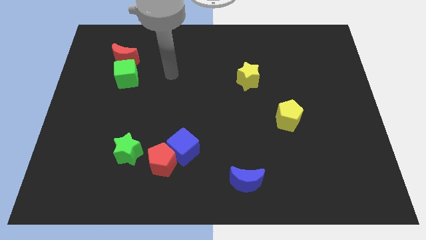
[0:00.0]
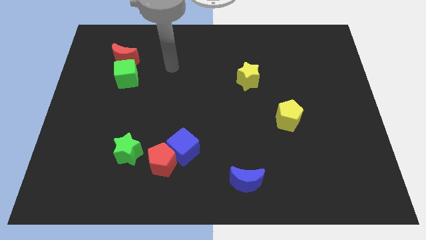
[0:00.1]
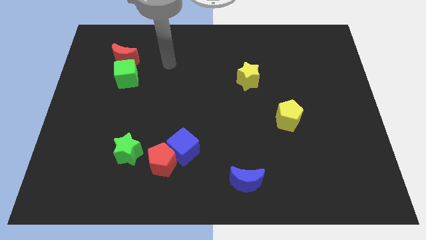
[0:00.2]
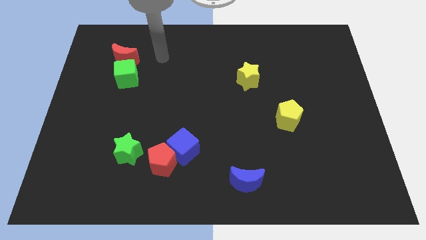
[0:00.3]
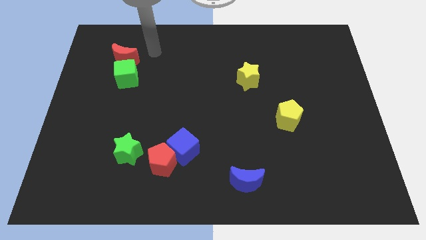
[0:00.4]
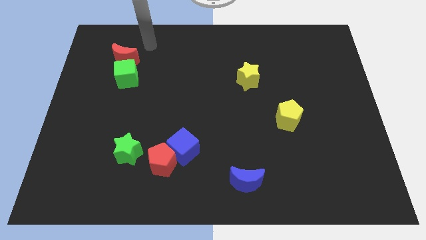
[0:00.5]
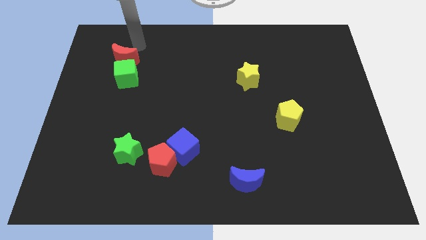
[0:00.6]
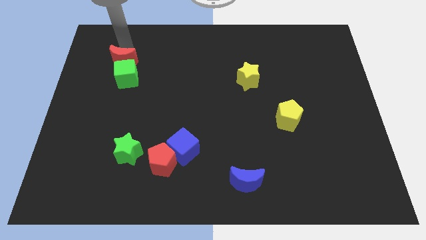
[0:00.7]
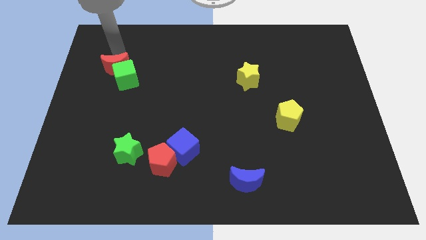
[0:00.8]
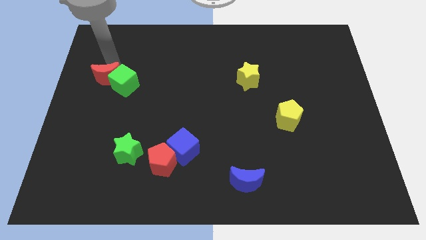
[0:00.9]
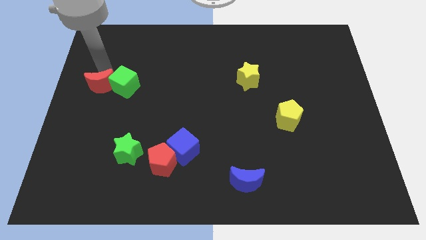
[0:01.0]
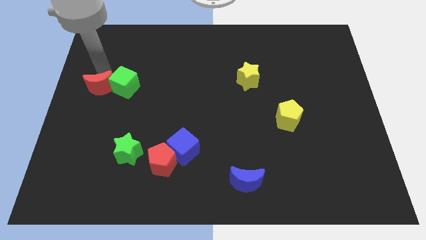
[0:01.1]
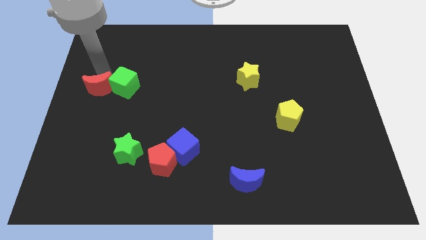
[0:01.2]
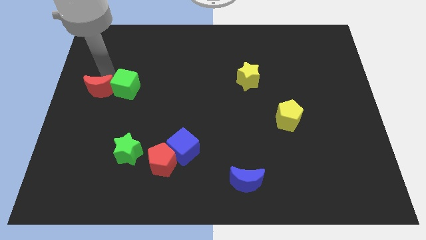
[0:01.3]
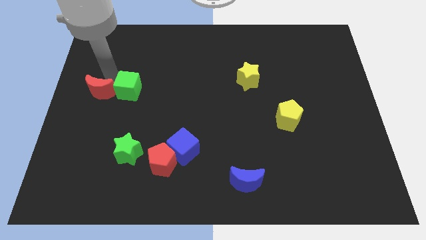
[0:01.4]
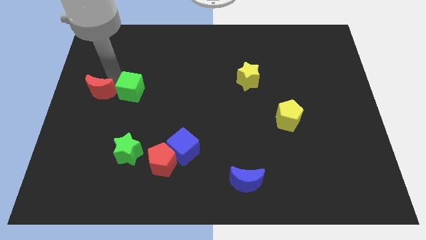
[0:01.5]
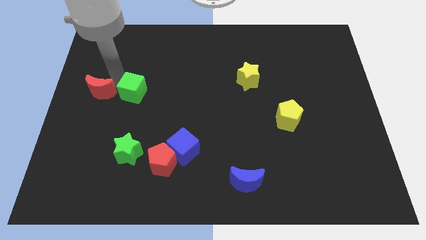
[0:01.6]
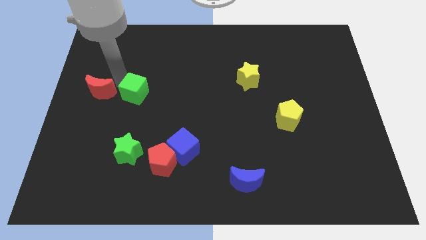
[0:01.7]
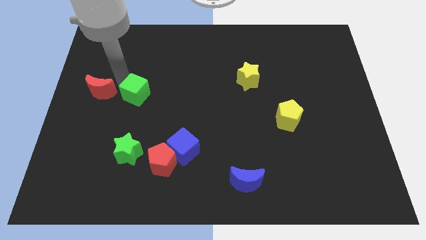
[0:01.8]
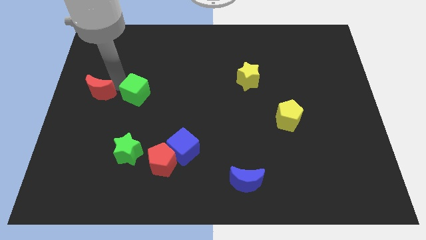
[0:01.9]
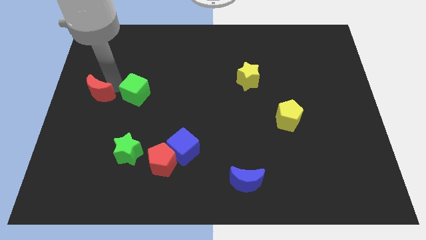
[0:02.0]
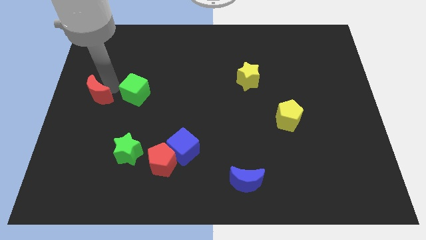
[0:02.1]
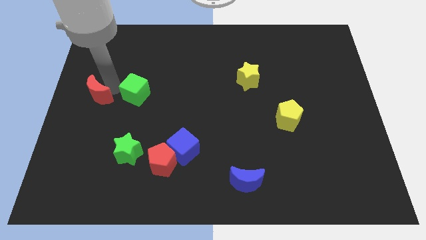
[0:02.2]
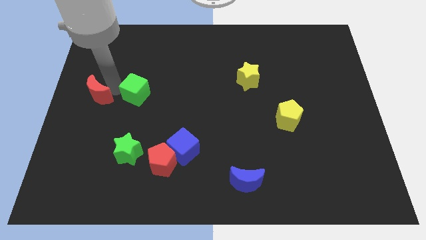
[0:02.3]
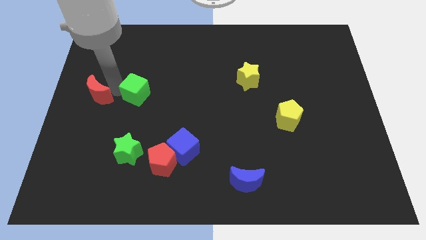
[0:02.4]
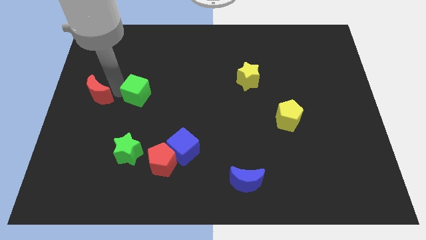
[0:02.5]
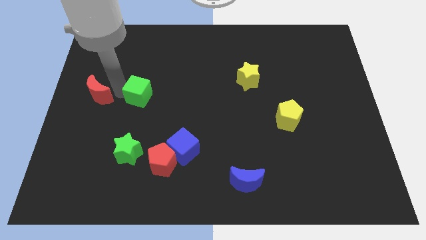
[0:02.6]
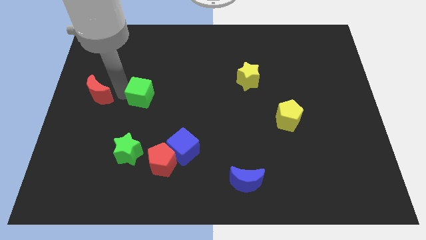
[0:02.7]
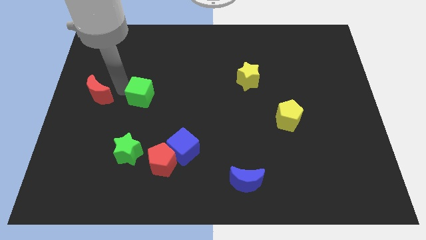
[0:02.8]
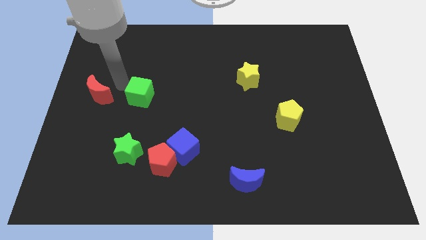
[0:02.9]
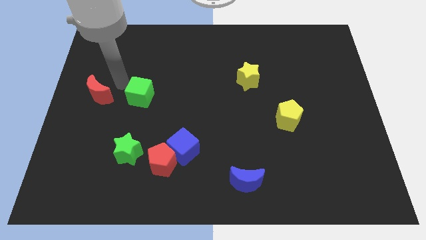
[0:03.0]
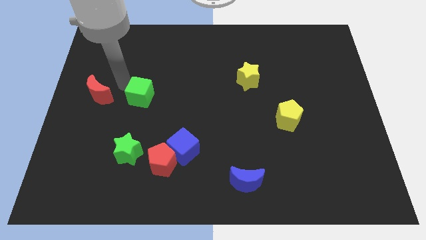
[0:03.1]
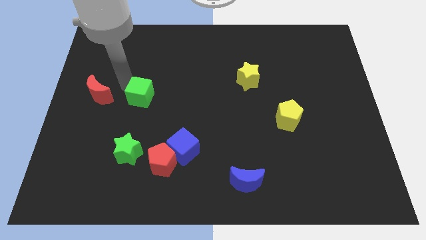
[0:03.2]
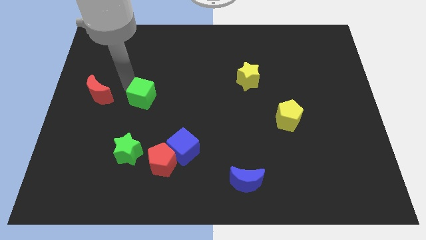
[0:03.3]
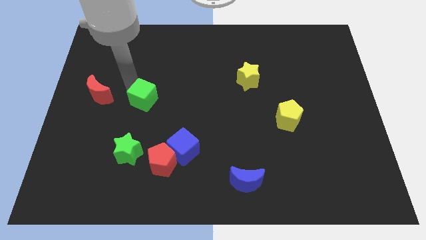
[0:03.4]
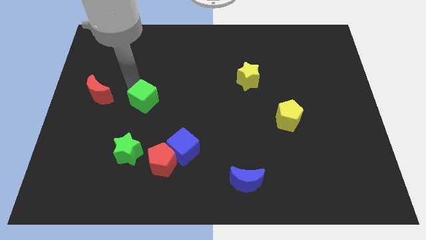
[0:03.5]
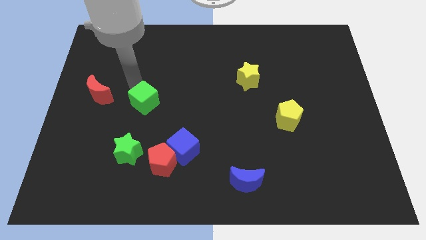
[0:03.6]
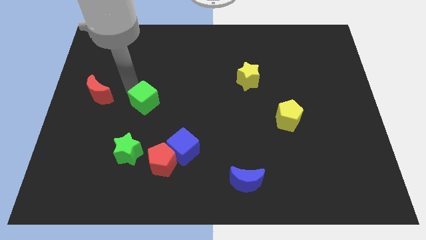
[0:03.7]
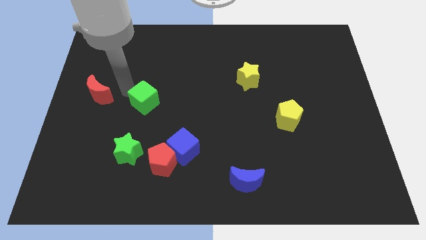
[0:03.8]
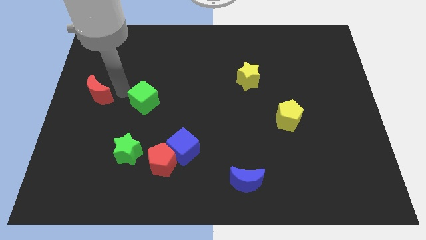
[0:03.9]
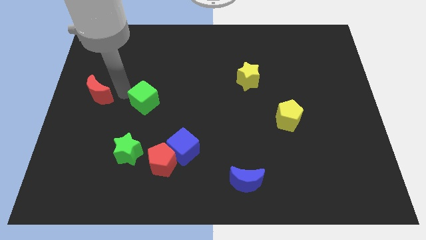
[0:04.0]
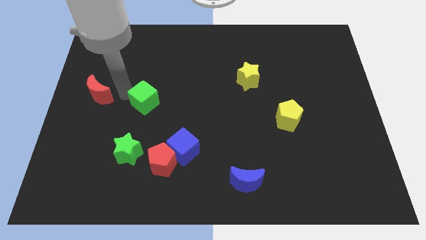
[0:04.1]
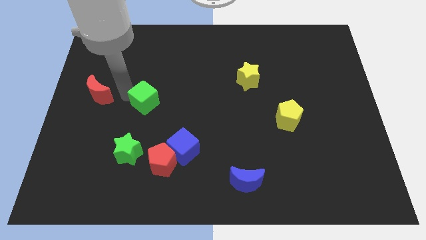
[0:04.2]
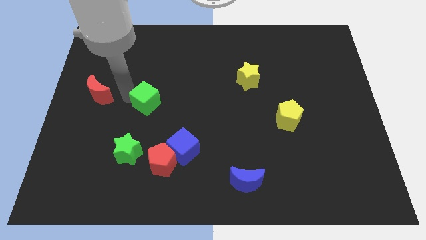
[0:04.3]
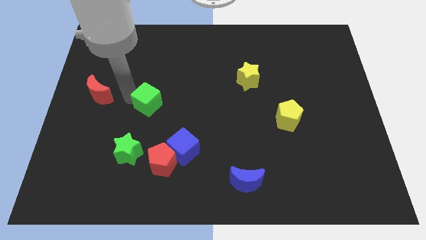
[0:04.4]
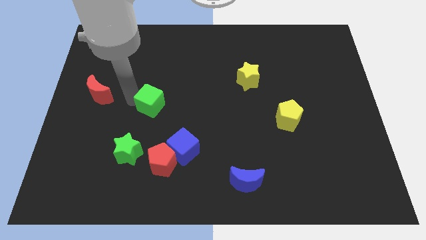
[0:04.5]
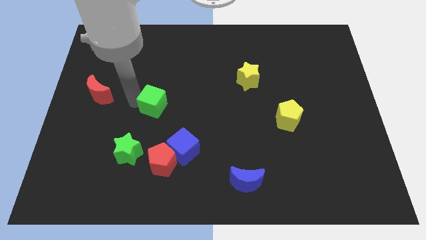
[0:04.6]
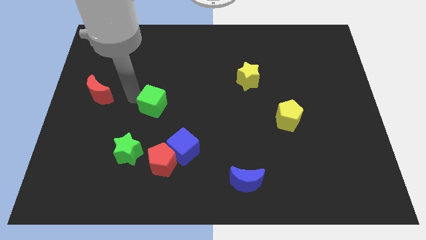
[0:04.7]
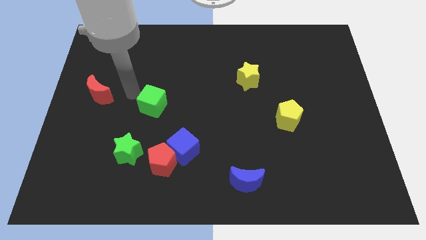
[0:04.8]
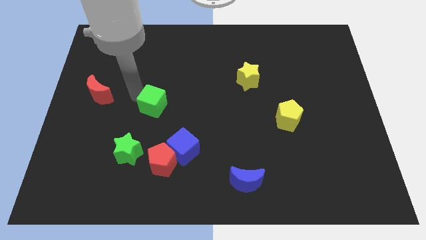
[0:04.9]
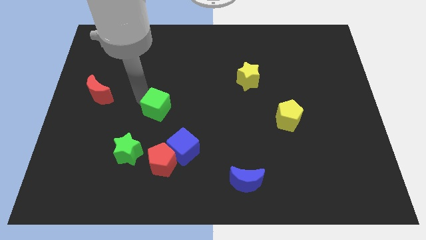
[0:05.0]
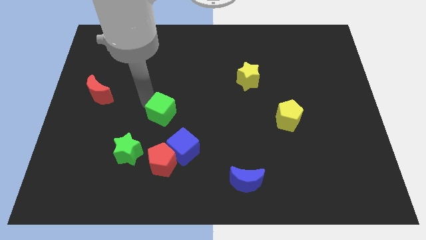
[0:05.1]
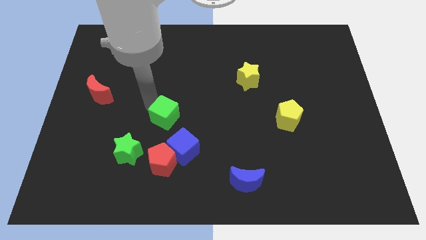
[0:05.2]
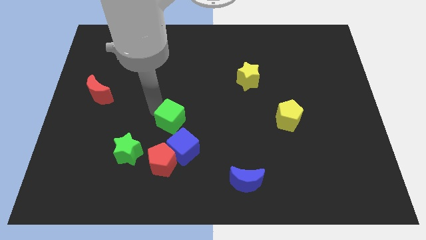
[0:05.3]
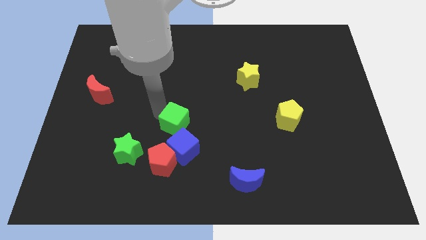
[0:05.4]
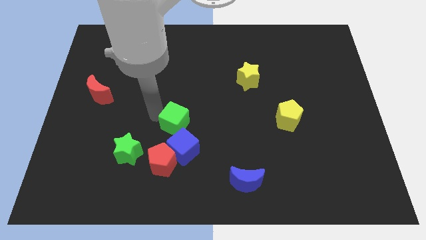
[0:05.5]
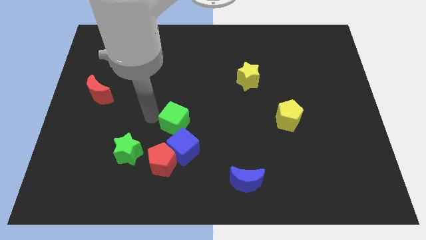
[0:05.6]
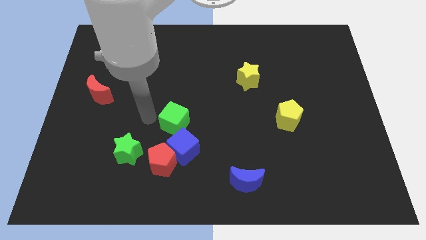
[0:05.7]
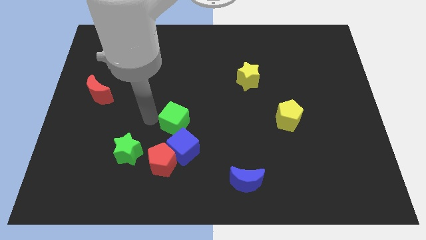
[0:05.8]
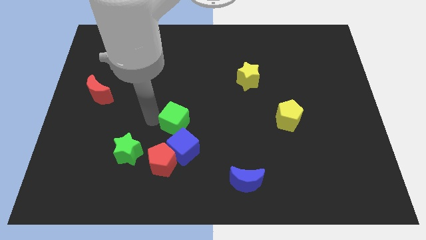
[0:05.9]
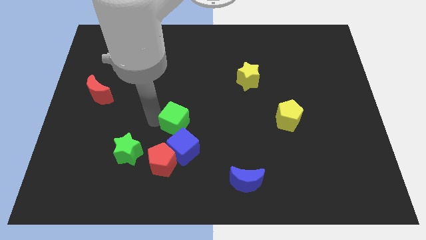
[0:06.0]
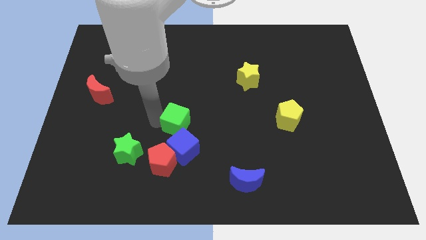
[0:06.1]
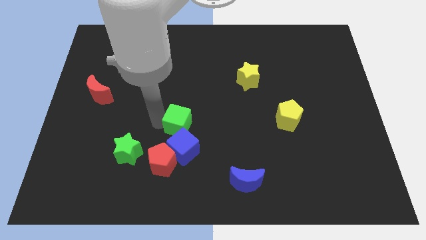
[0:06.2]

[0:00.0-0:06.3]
slide the green cube downwards and to the right

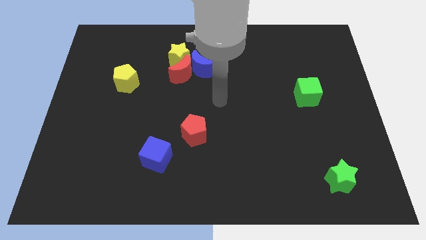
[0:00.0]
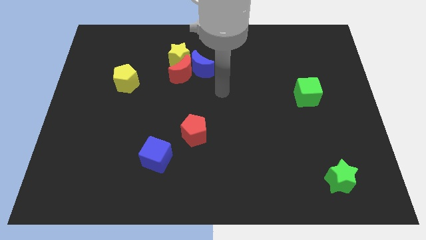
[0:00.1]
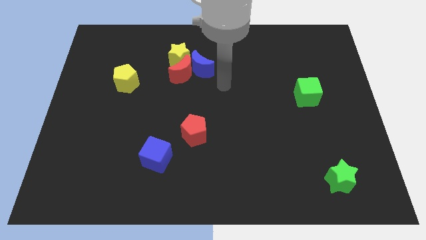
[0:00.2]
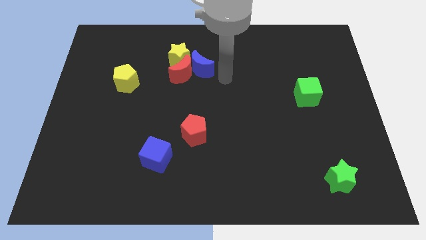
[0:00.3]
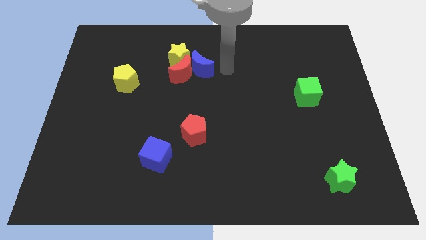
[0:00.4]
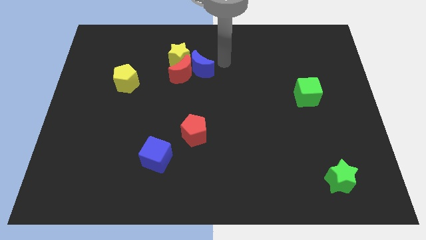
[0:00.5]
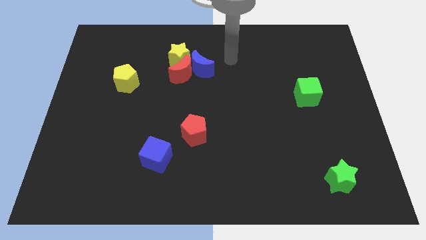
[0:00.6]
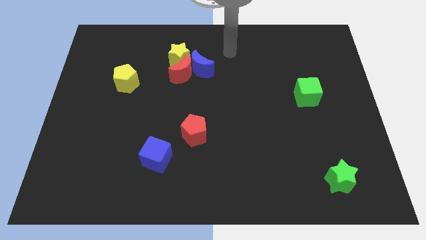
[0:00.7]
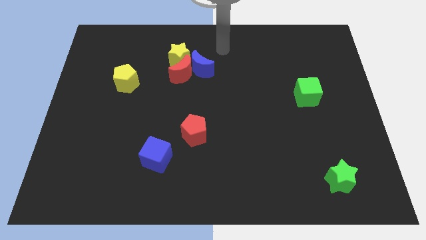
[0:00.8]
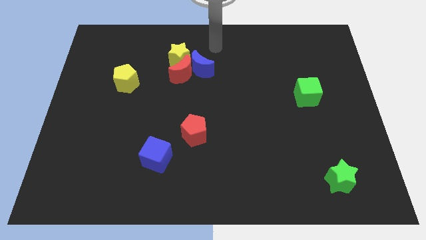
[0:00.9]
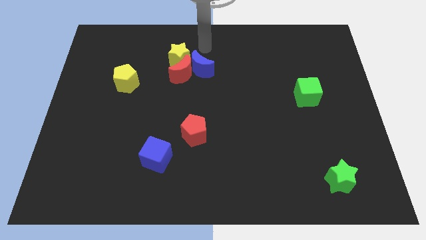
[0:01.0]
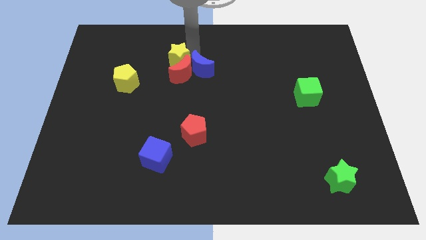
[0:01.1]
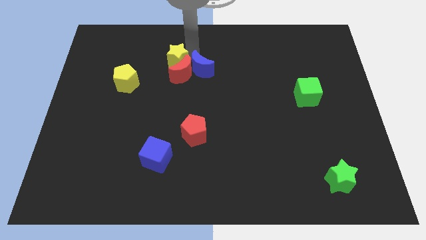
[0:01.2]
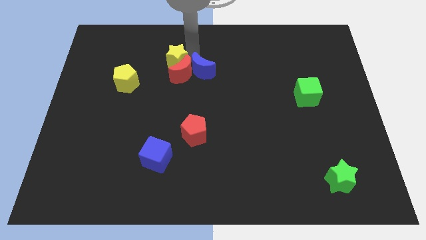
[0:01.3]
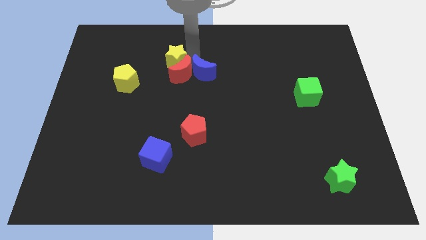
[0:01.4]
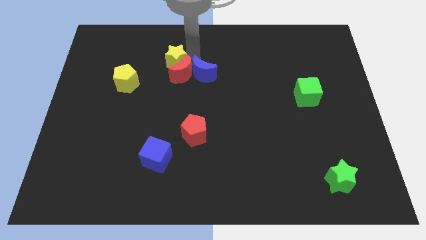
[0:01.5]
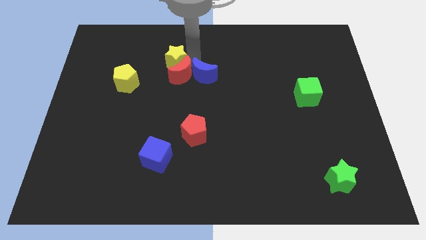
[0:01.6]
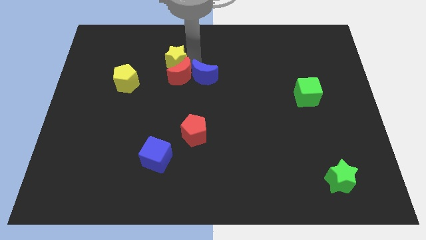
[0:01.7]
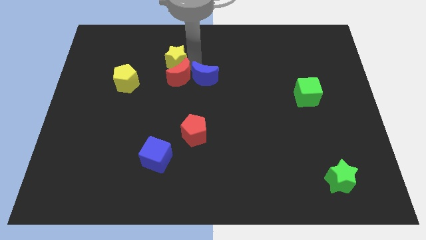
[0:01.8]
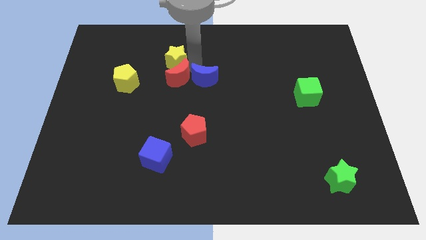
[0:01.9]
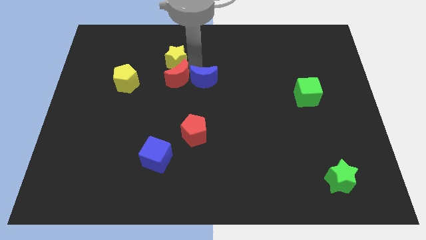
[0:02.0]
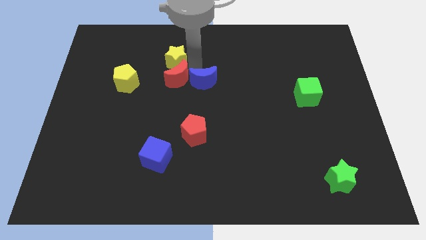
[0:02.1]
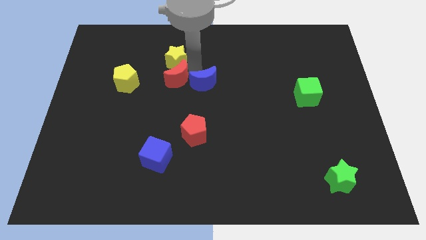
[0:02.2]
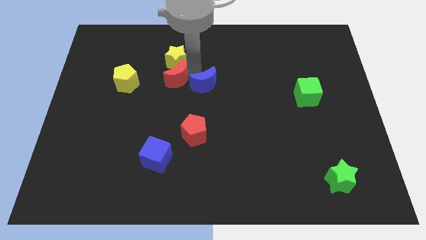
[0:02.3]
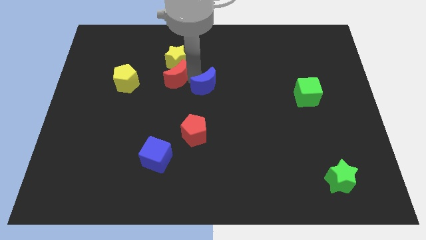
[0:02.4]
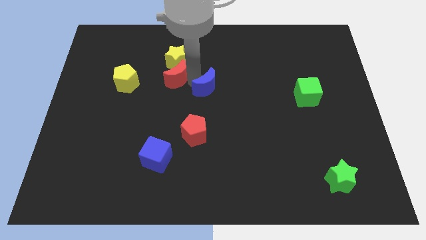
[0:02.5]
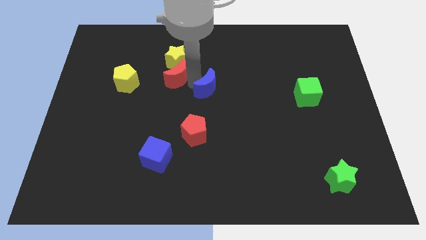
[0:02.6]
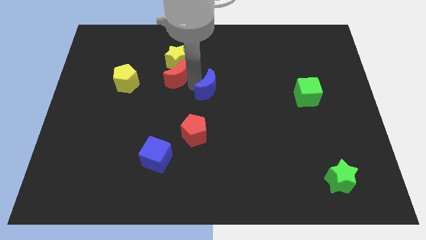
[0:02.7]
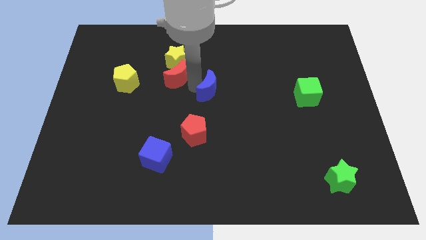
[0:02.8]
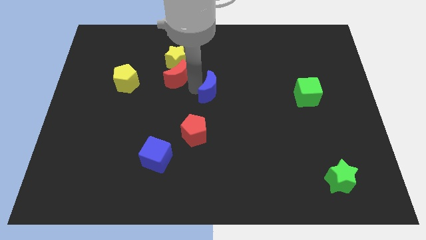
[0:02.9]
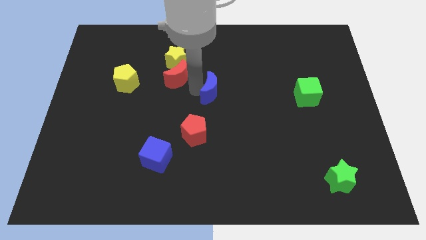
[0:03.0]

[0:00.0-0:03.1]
push the blue moon diagonally down and right a little
